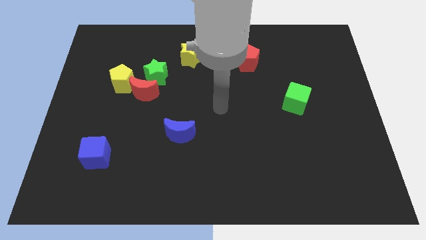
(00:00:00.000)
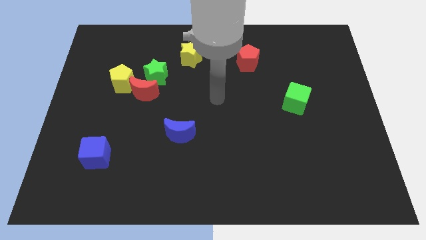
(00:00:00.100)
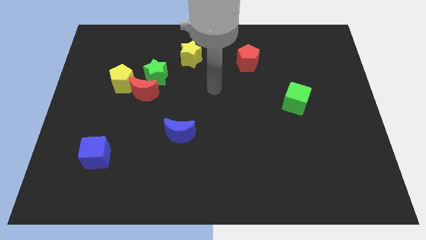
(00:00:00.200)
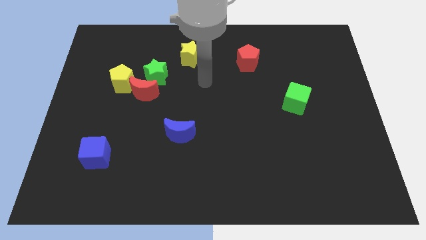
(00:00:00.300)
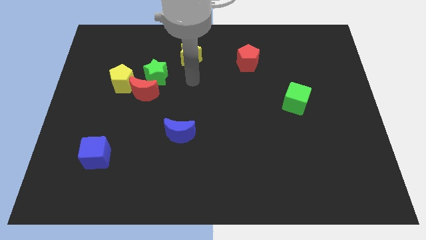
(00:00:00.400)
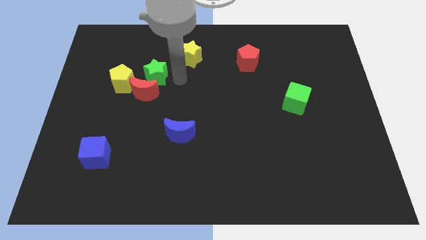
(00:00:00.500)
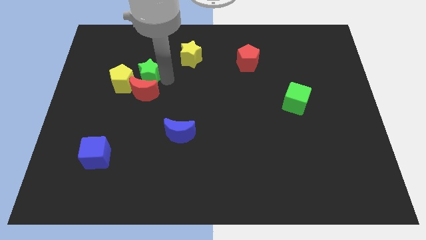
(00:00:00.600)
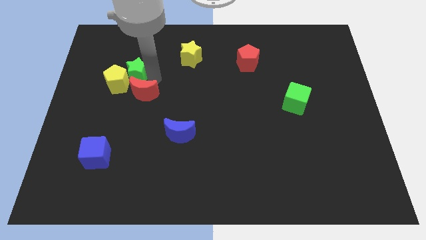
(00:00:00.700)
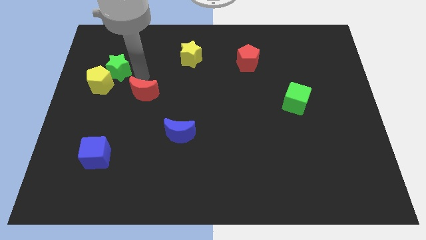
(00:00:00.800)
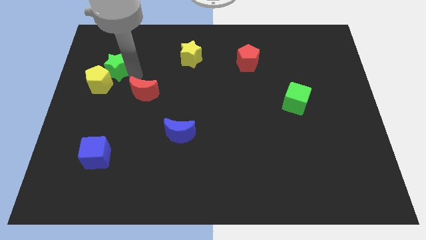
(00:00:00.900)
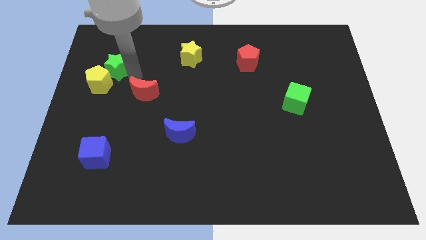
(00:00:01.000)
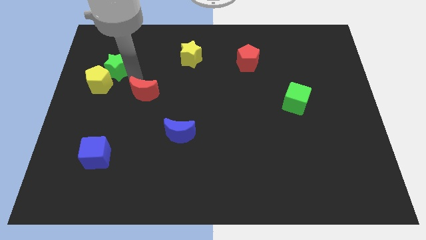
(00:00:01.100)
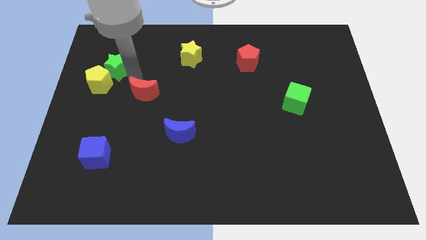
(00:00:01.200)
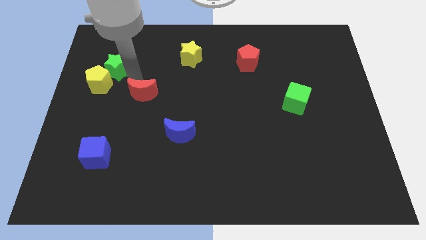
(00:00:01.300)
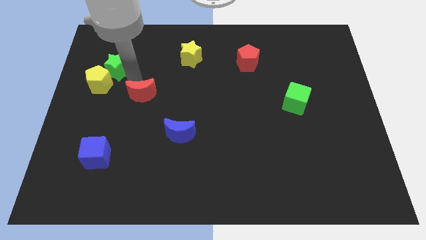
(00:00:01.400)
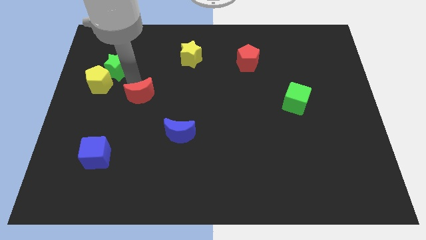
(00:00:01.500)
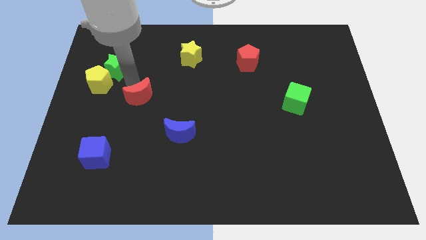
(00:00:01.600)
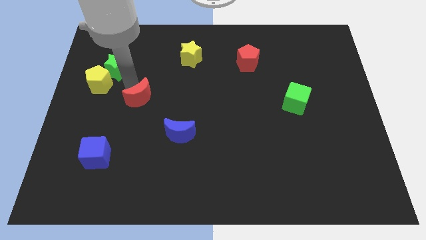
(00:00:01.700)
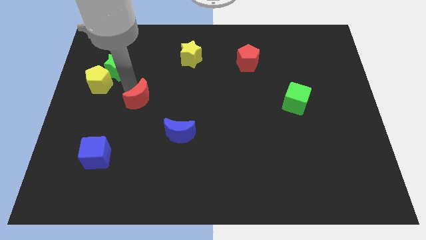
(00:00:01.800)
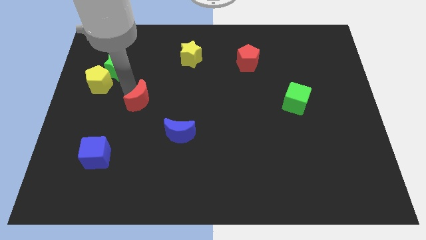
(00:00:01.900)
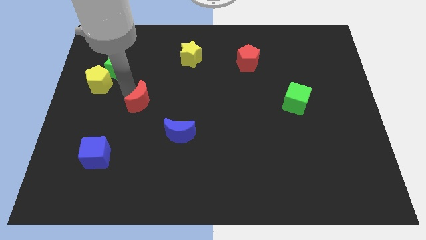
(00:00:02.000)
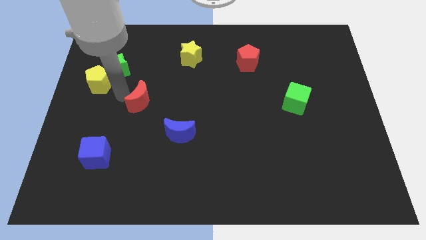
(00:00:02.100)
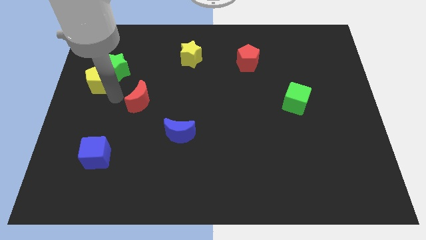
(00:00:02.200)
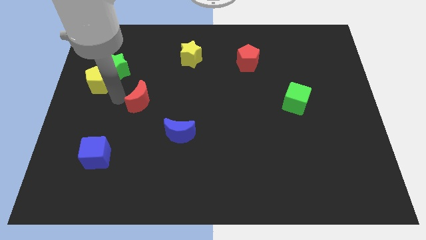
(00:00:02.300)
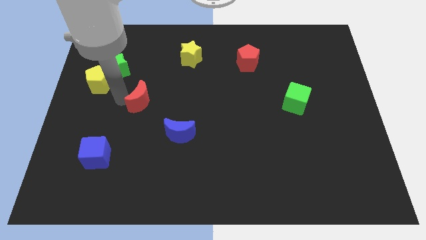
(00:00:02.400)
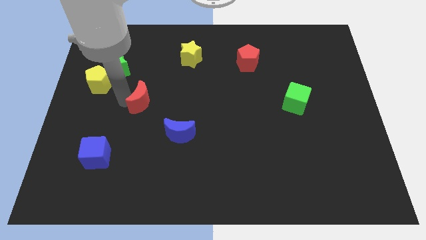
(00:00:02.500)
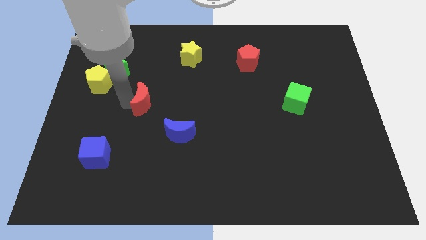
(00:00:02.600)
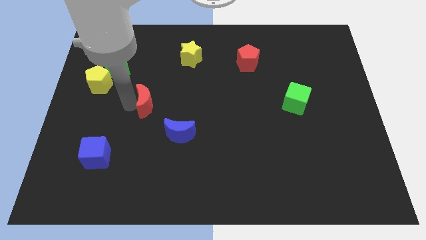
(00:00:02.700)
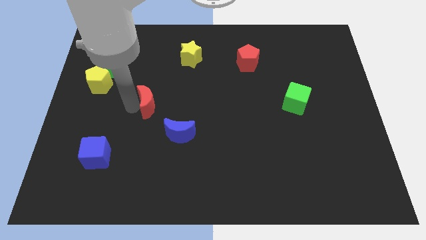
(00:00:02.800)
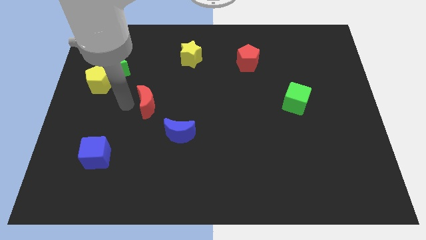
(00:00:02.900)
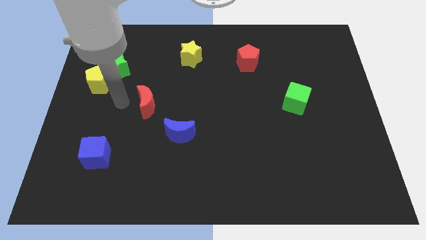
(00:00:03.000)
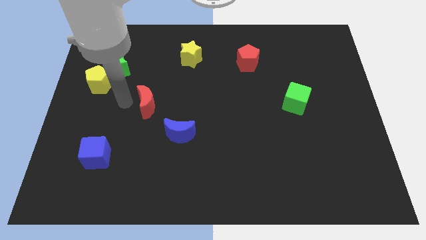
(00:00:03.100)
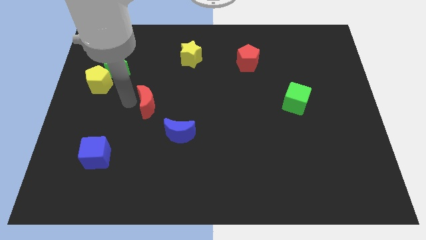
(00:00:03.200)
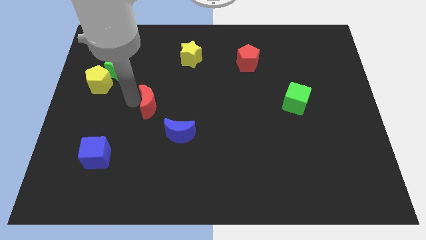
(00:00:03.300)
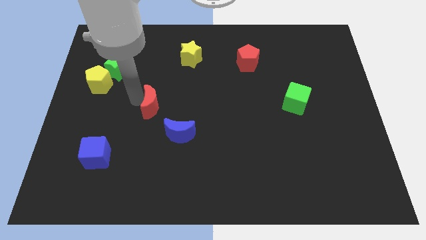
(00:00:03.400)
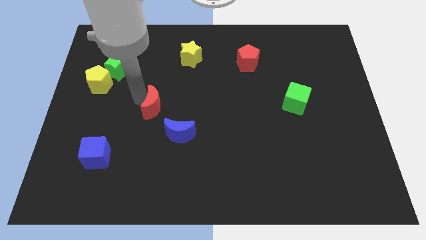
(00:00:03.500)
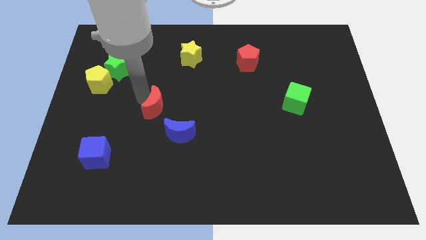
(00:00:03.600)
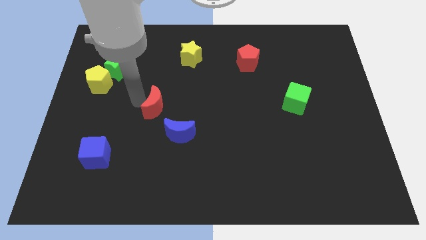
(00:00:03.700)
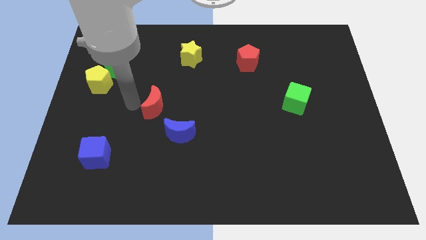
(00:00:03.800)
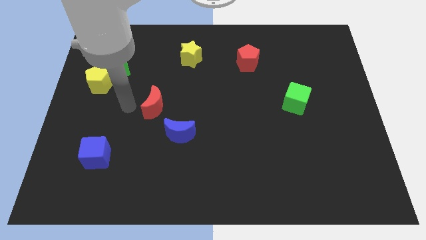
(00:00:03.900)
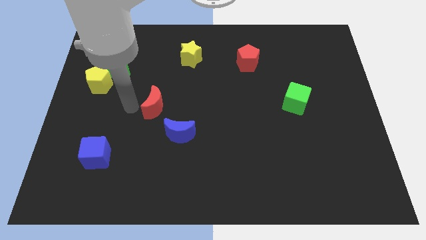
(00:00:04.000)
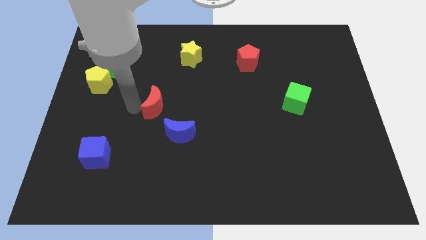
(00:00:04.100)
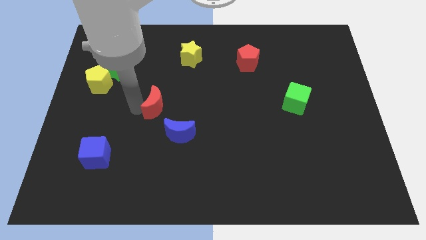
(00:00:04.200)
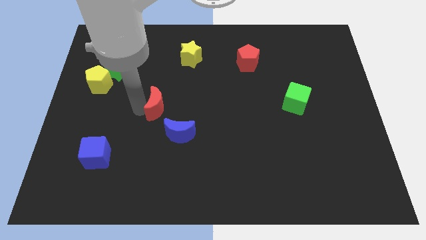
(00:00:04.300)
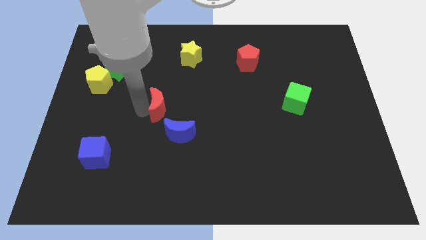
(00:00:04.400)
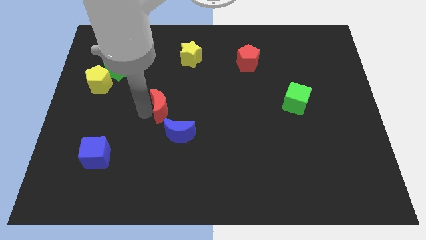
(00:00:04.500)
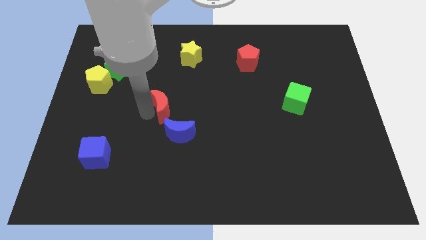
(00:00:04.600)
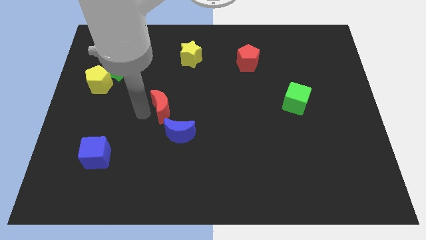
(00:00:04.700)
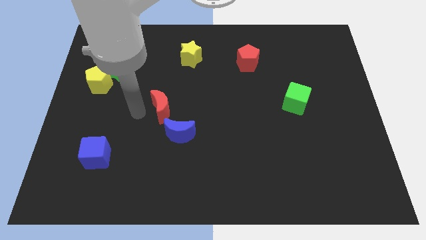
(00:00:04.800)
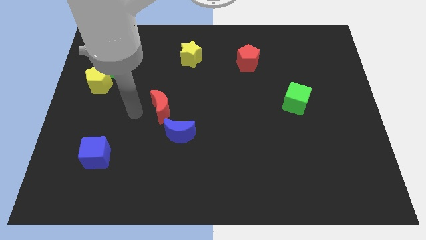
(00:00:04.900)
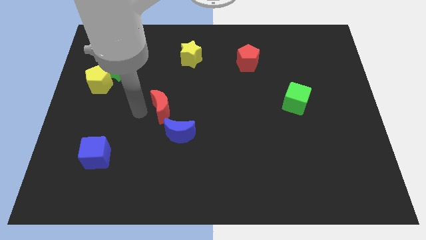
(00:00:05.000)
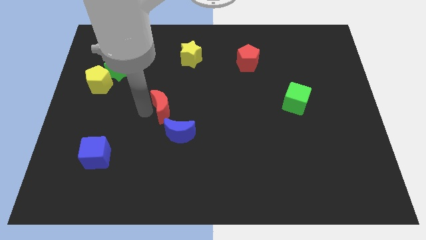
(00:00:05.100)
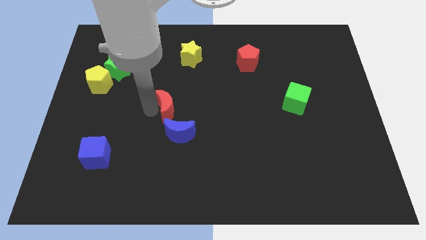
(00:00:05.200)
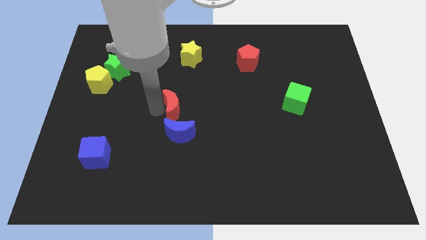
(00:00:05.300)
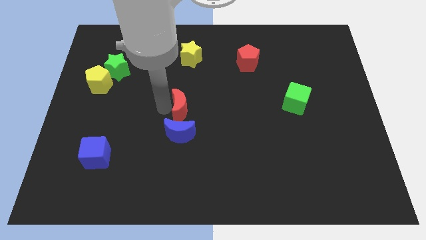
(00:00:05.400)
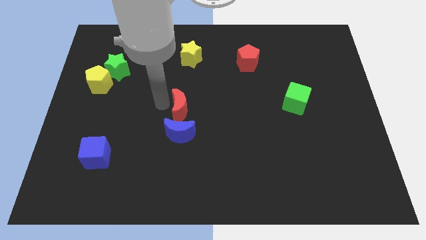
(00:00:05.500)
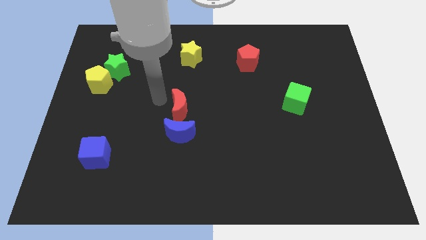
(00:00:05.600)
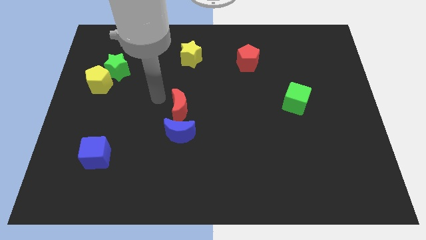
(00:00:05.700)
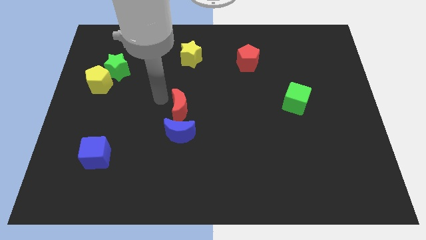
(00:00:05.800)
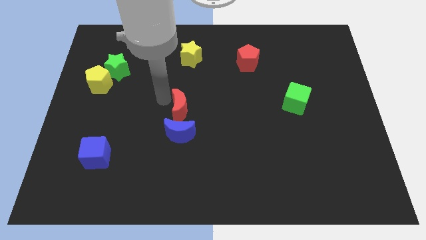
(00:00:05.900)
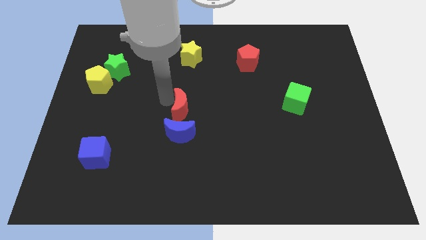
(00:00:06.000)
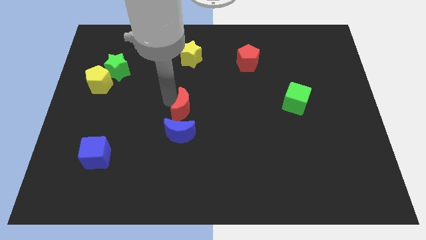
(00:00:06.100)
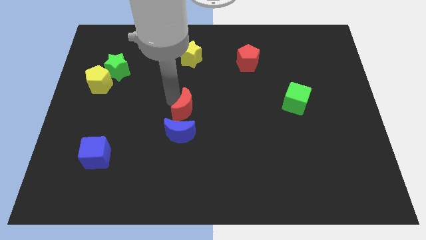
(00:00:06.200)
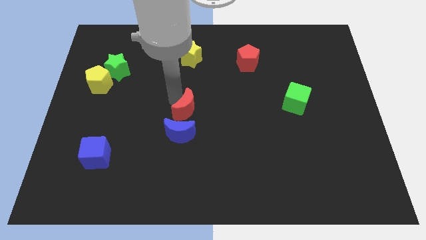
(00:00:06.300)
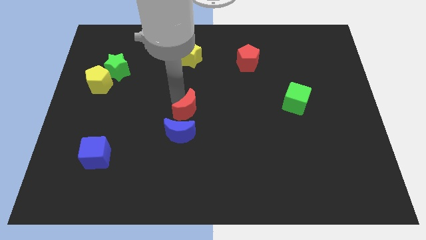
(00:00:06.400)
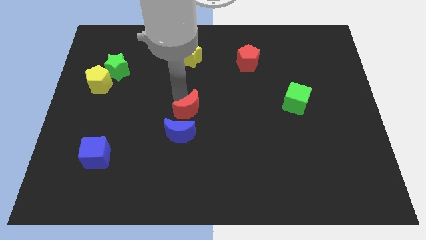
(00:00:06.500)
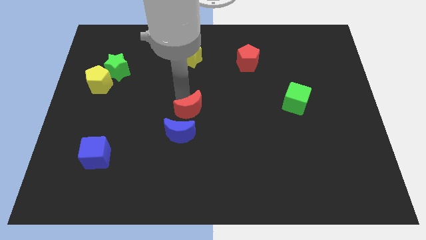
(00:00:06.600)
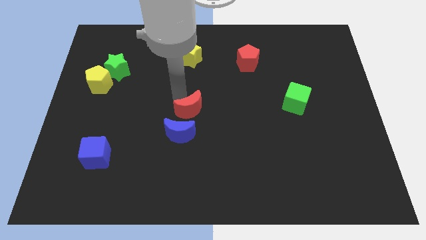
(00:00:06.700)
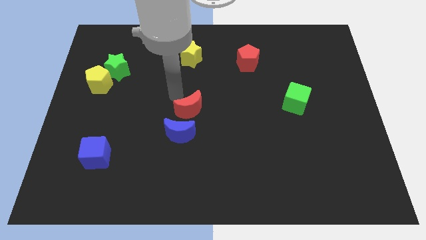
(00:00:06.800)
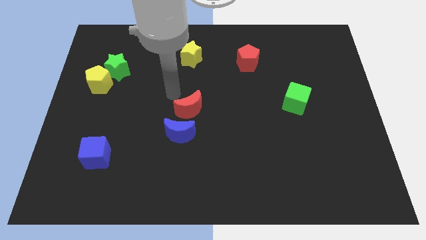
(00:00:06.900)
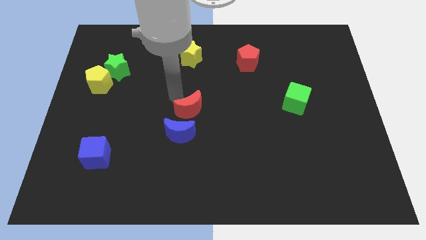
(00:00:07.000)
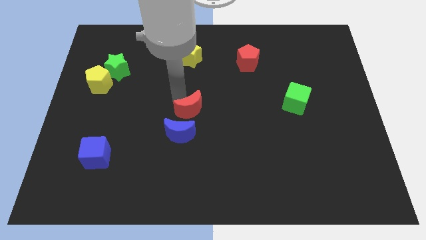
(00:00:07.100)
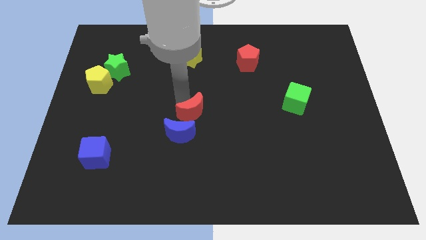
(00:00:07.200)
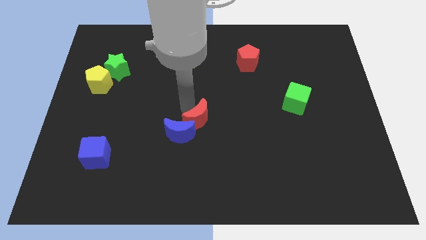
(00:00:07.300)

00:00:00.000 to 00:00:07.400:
slide the red moon right of the blue moon
